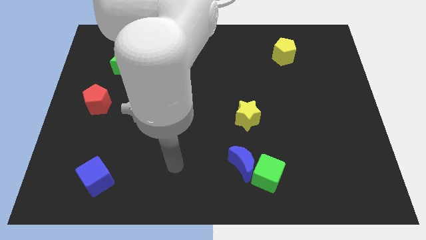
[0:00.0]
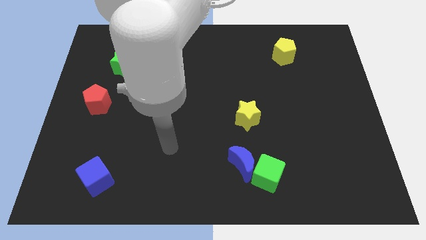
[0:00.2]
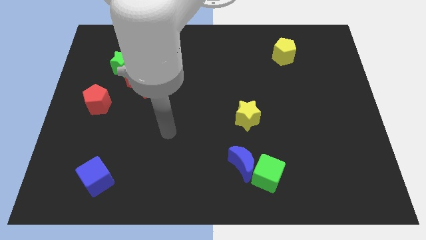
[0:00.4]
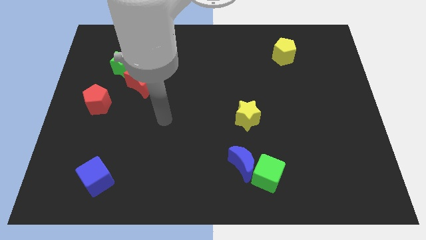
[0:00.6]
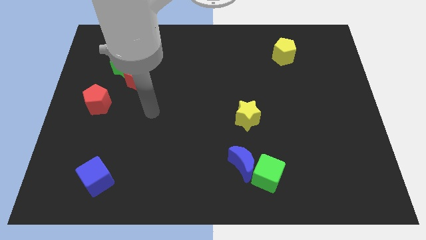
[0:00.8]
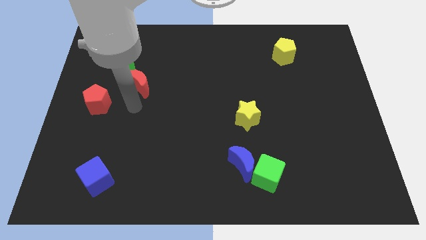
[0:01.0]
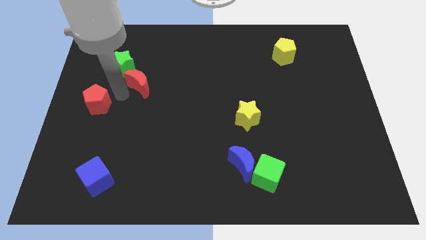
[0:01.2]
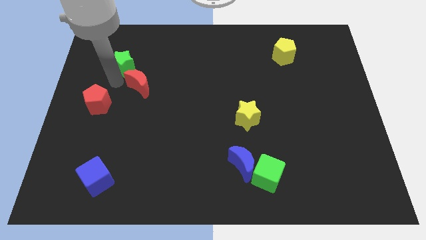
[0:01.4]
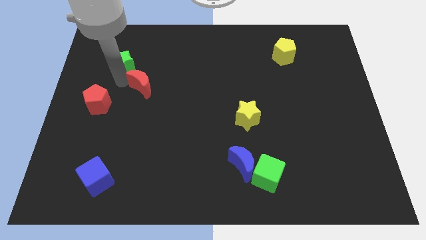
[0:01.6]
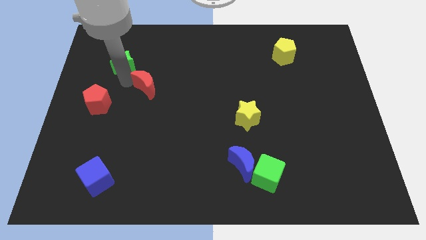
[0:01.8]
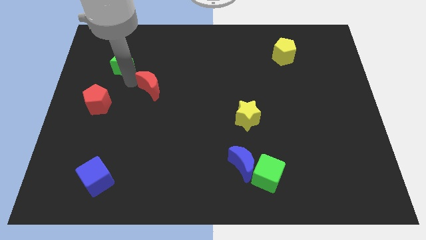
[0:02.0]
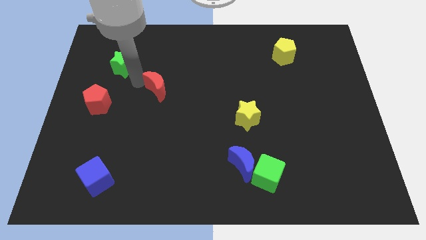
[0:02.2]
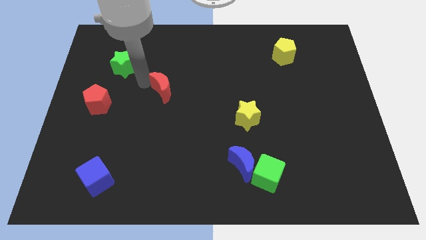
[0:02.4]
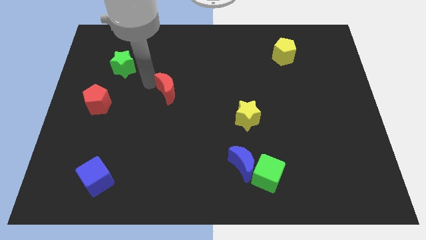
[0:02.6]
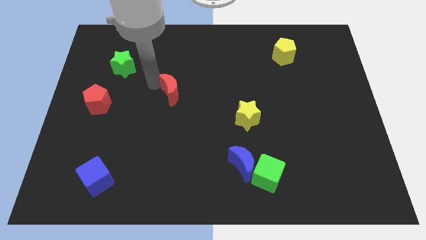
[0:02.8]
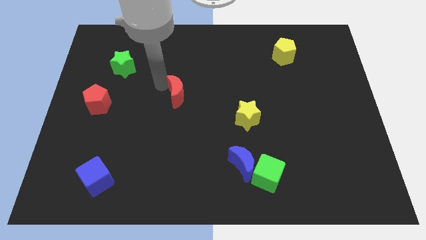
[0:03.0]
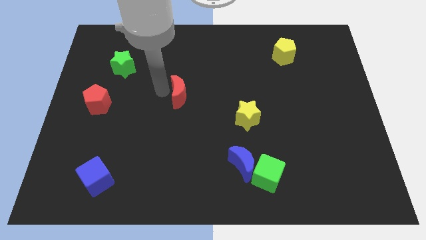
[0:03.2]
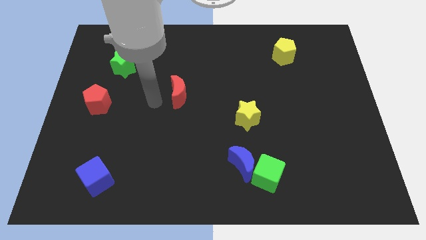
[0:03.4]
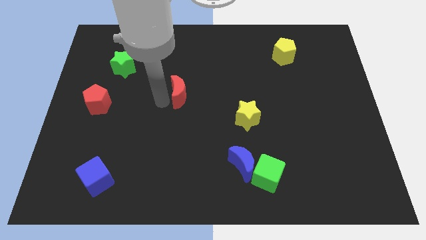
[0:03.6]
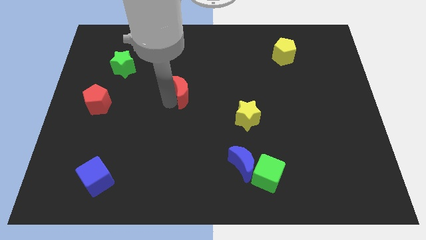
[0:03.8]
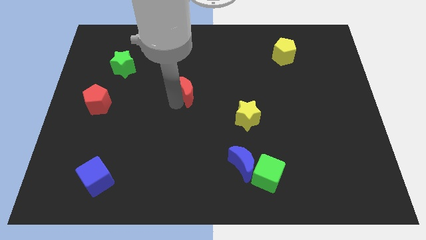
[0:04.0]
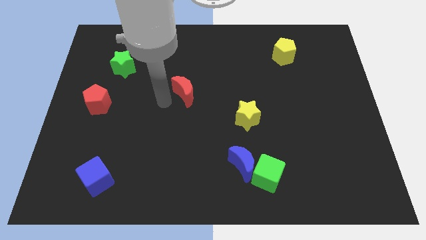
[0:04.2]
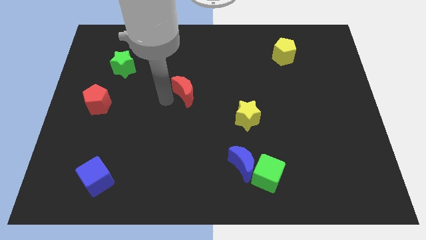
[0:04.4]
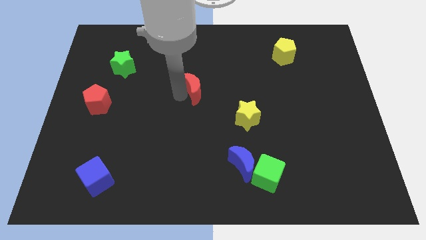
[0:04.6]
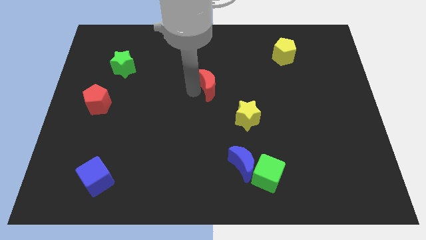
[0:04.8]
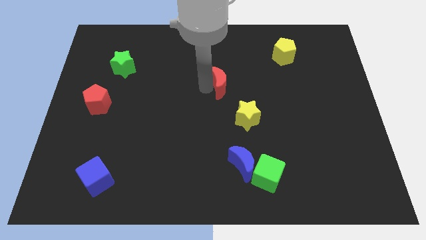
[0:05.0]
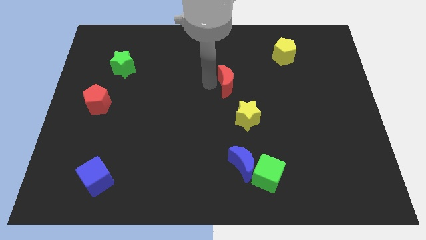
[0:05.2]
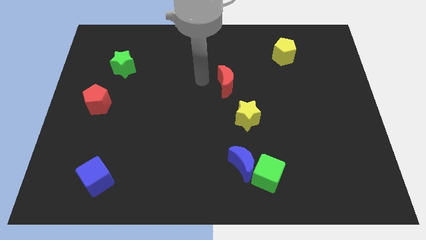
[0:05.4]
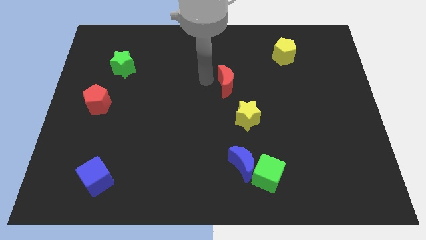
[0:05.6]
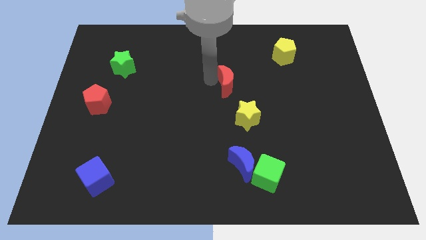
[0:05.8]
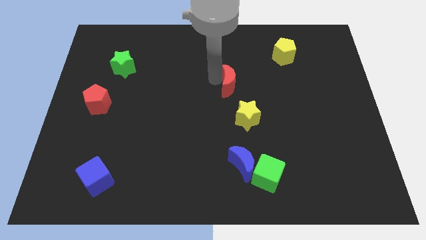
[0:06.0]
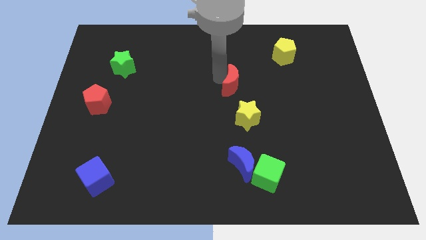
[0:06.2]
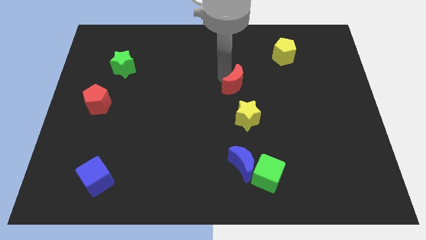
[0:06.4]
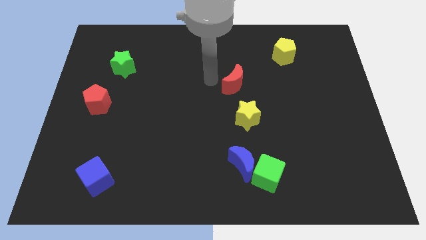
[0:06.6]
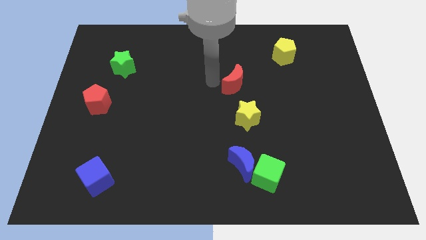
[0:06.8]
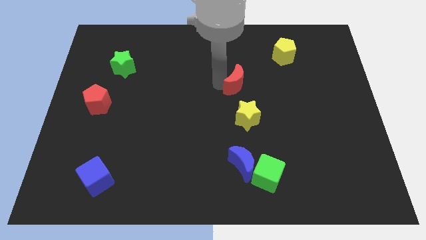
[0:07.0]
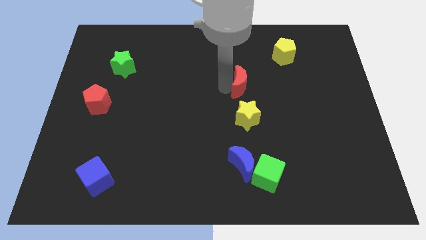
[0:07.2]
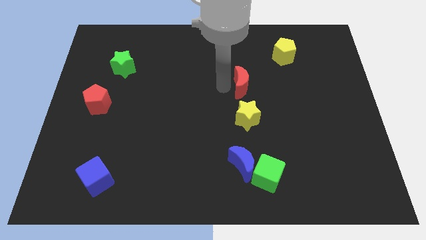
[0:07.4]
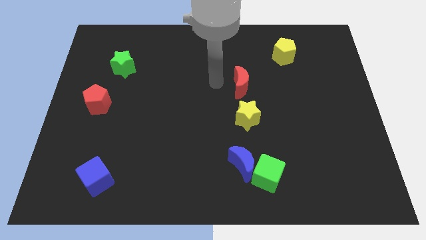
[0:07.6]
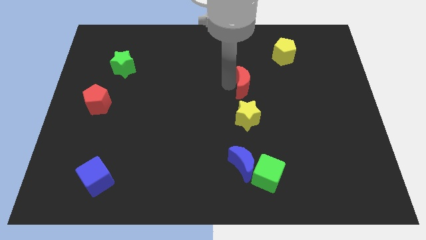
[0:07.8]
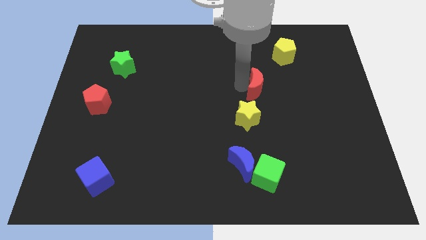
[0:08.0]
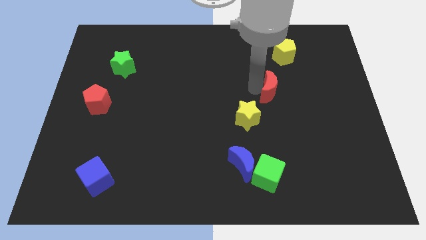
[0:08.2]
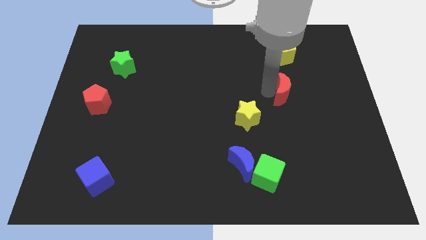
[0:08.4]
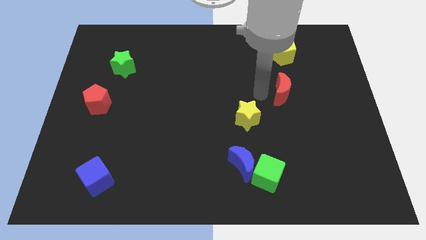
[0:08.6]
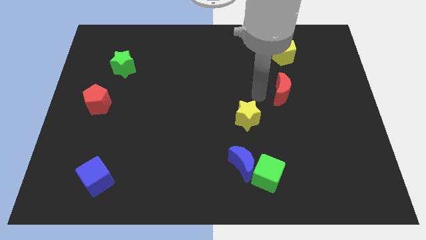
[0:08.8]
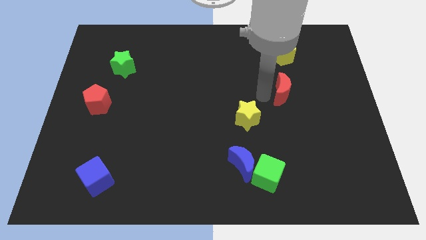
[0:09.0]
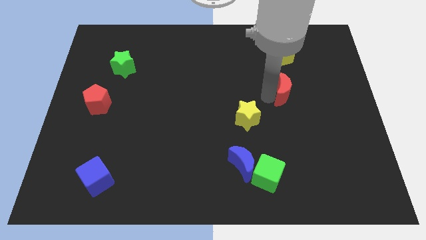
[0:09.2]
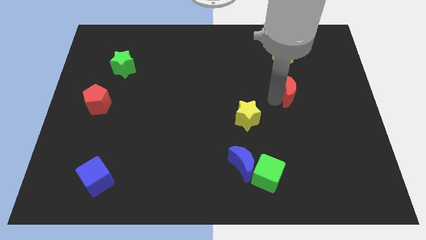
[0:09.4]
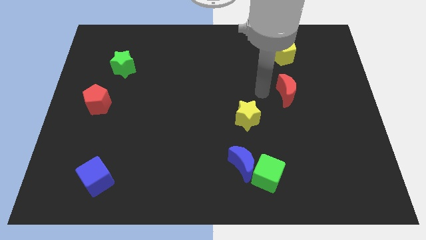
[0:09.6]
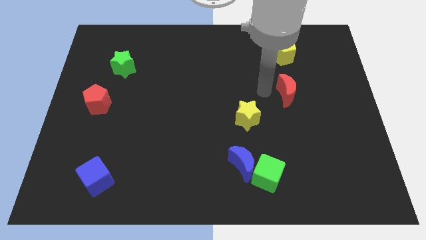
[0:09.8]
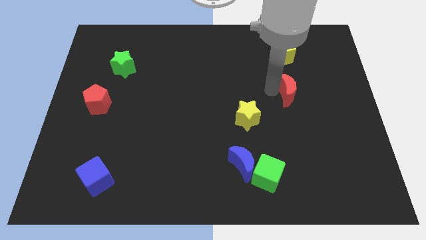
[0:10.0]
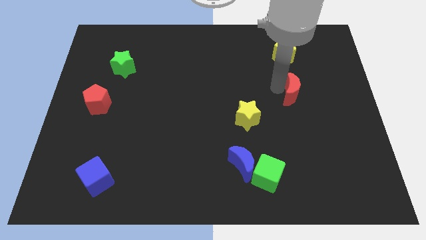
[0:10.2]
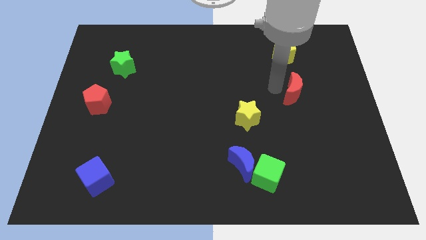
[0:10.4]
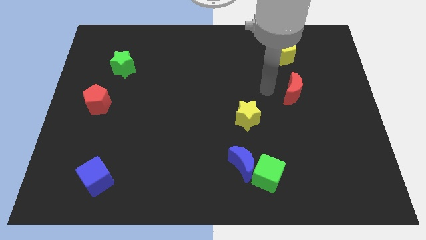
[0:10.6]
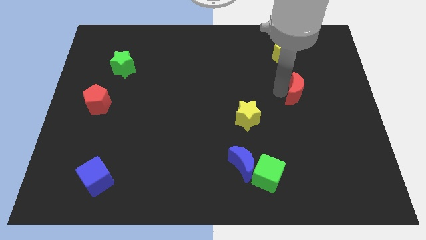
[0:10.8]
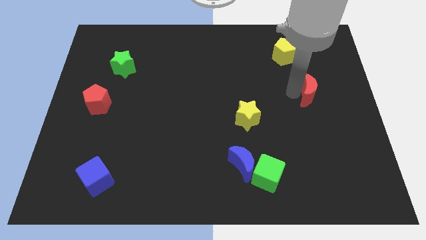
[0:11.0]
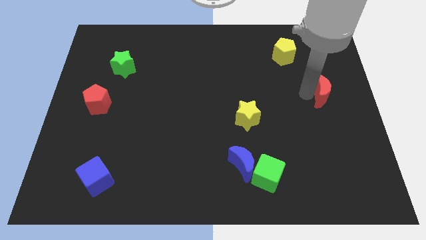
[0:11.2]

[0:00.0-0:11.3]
move the red moon to the right side of the board
